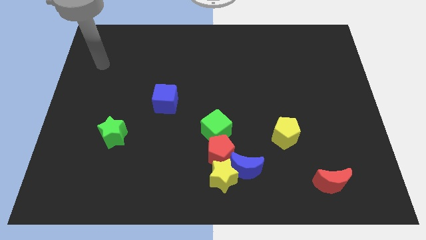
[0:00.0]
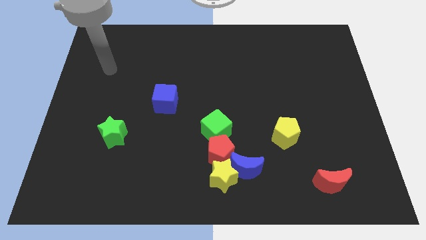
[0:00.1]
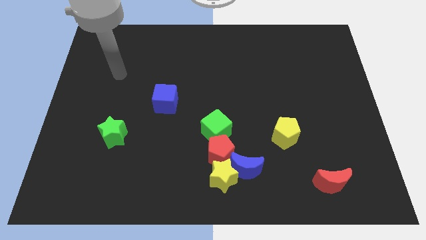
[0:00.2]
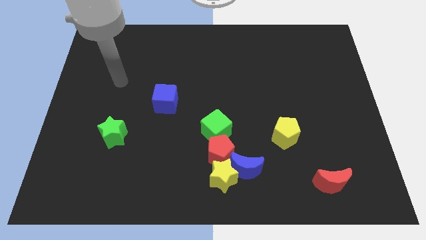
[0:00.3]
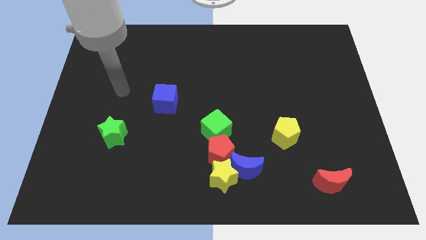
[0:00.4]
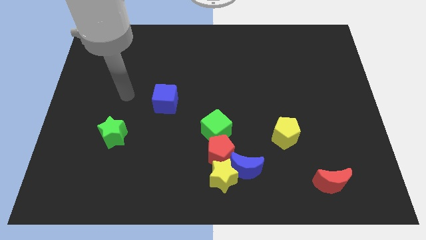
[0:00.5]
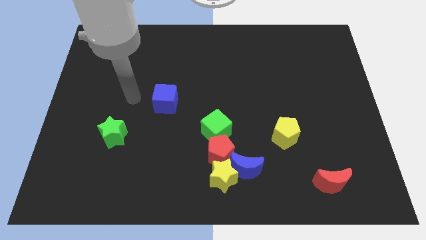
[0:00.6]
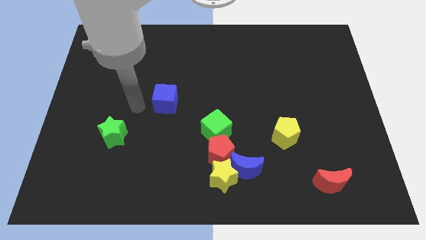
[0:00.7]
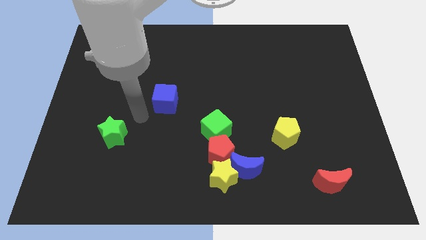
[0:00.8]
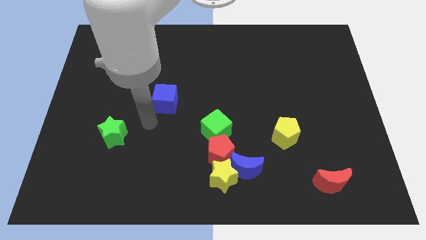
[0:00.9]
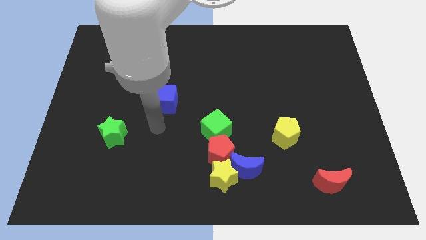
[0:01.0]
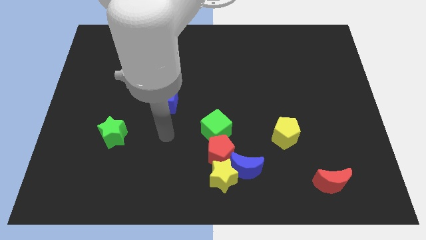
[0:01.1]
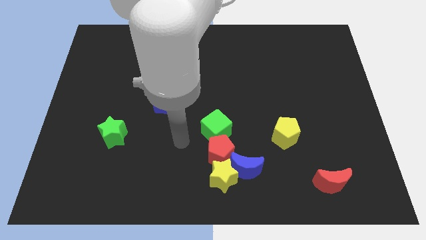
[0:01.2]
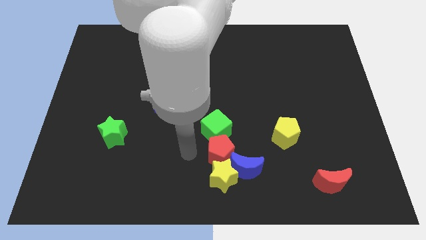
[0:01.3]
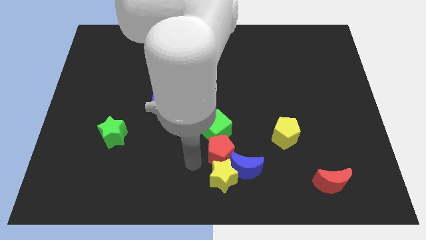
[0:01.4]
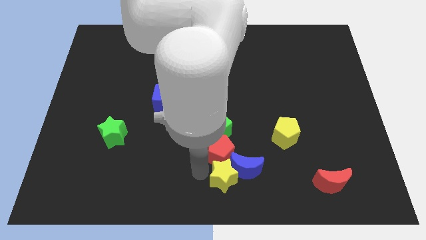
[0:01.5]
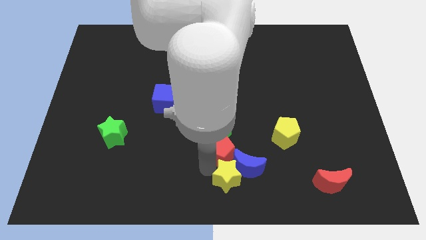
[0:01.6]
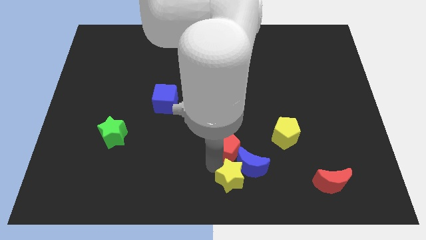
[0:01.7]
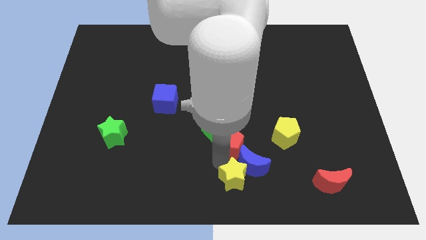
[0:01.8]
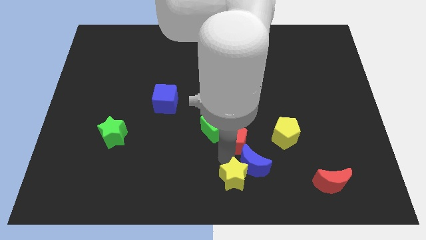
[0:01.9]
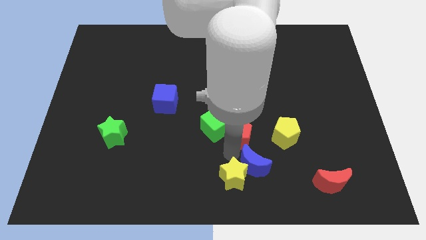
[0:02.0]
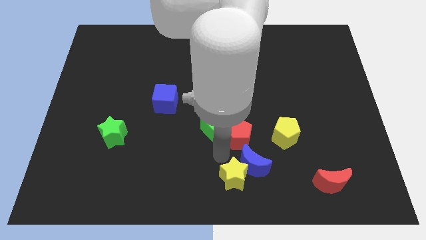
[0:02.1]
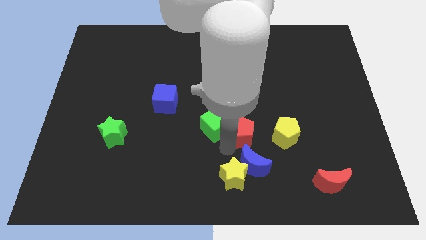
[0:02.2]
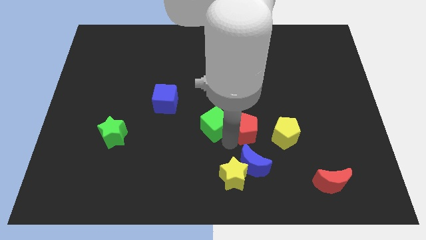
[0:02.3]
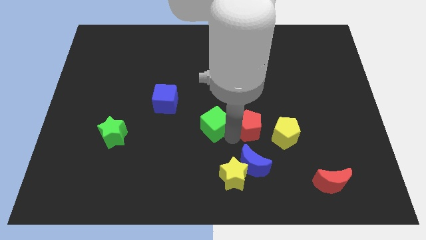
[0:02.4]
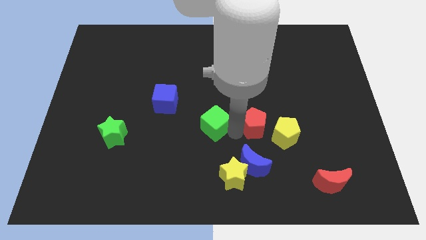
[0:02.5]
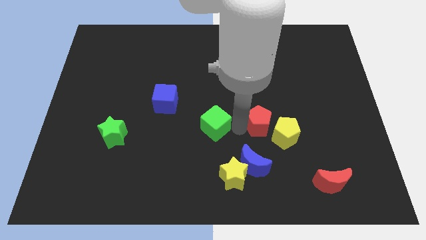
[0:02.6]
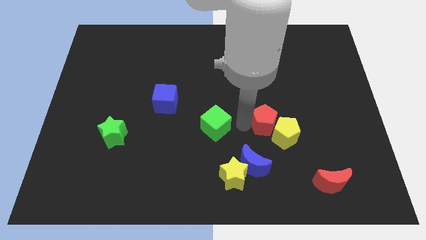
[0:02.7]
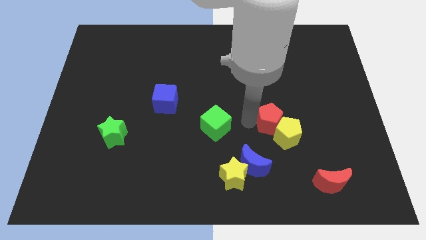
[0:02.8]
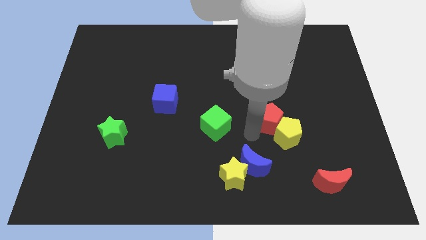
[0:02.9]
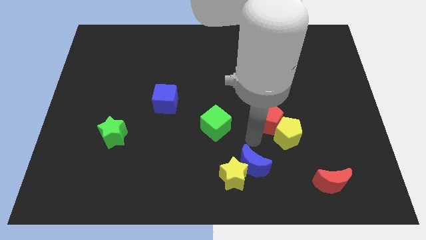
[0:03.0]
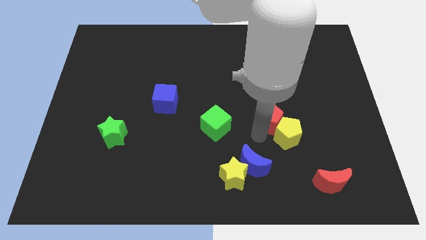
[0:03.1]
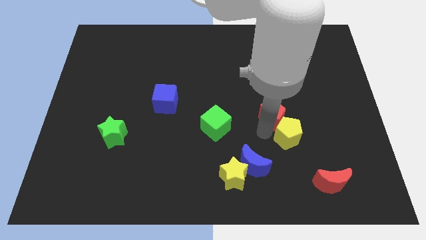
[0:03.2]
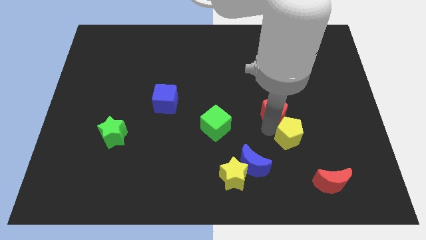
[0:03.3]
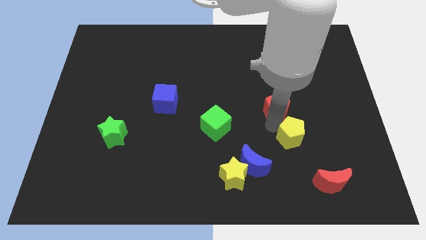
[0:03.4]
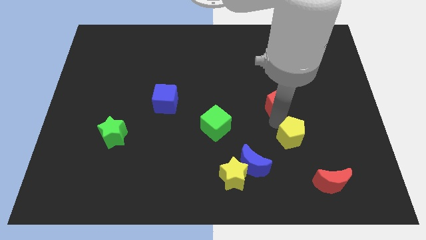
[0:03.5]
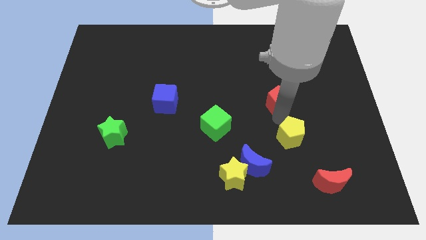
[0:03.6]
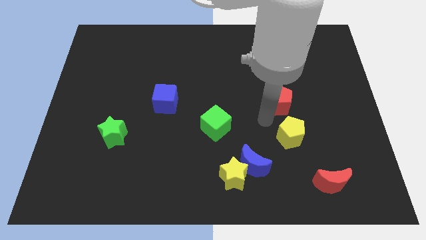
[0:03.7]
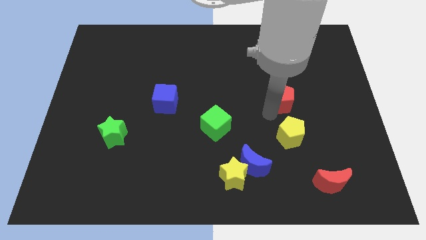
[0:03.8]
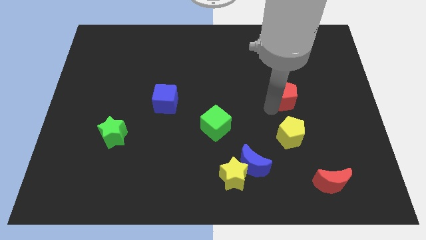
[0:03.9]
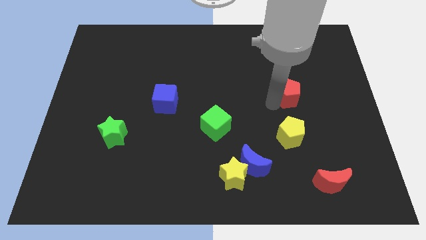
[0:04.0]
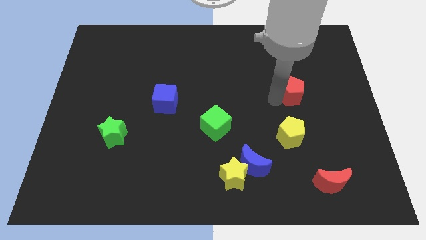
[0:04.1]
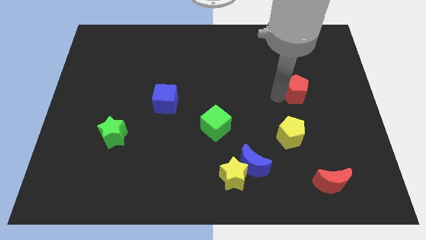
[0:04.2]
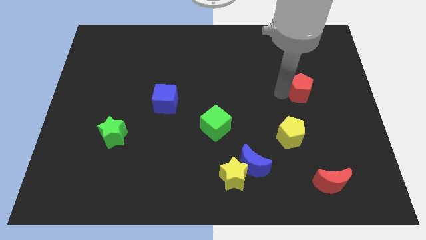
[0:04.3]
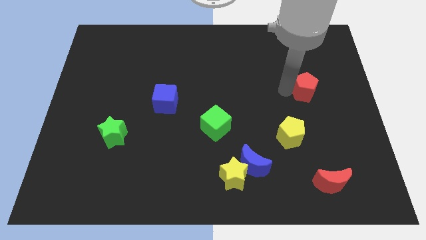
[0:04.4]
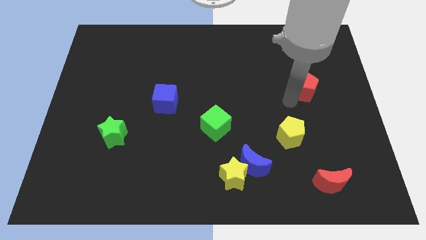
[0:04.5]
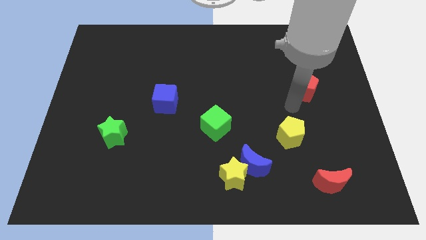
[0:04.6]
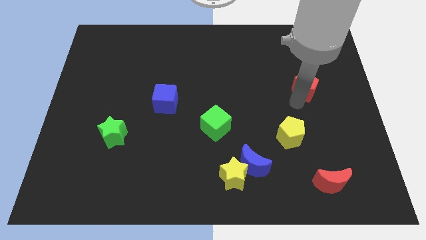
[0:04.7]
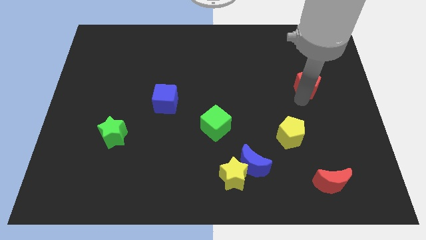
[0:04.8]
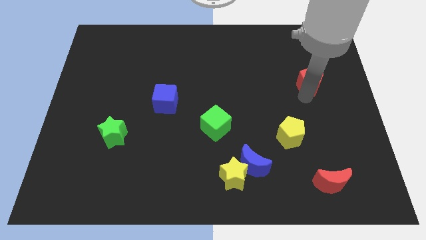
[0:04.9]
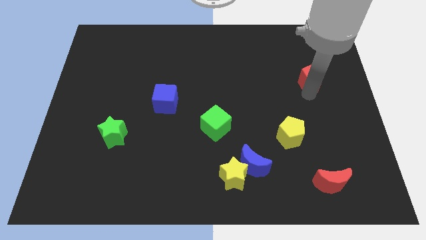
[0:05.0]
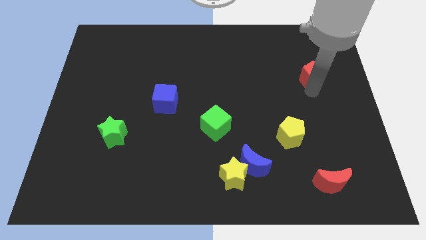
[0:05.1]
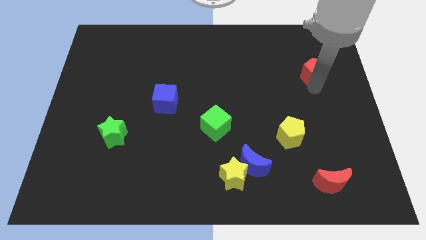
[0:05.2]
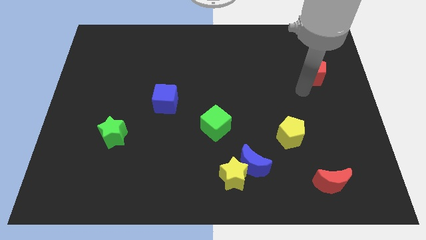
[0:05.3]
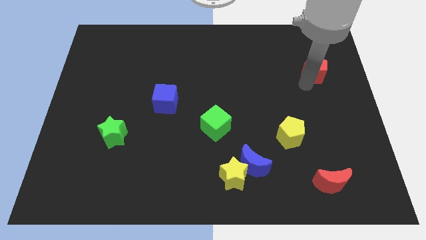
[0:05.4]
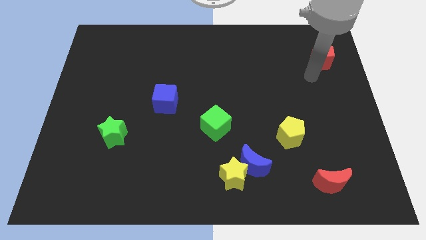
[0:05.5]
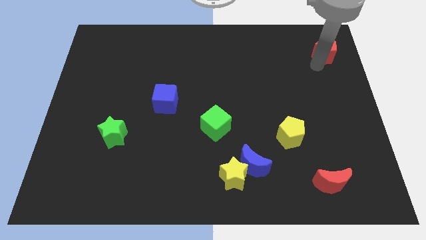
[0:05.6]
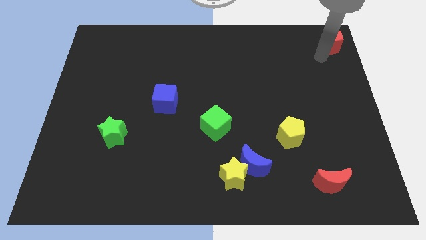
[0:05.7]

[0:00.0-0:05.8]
move the red pentagon to the top right
